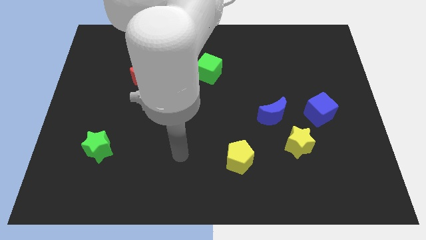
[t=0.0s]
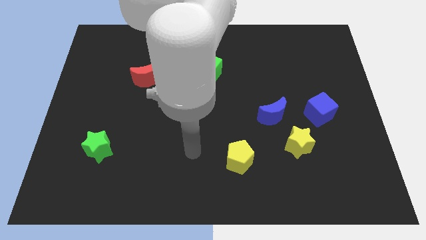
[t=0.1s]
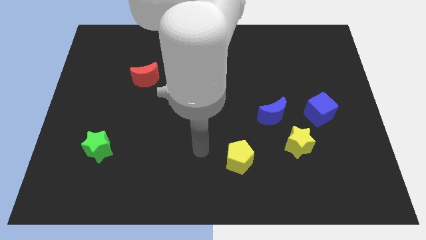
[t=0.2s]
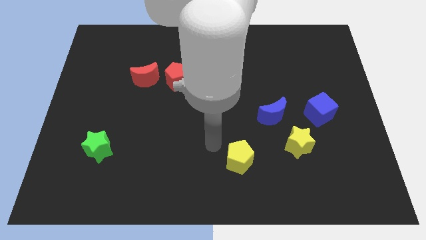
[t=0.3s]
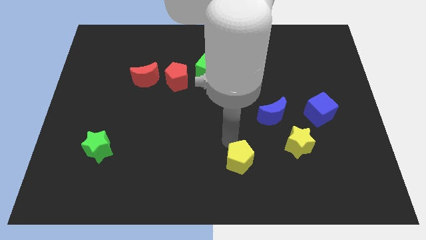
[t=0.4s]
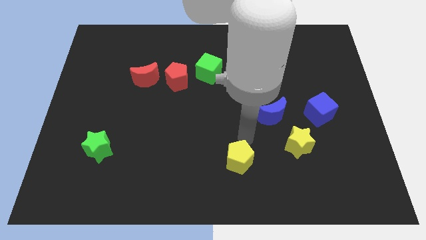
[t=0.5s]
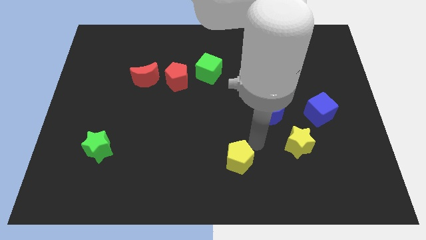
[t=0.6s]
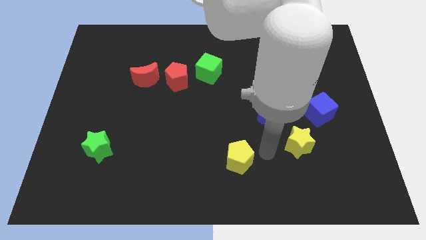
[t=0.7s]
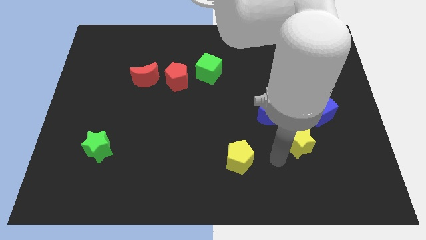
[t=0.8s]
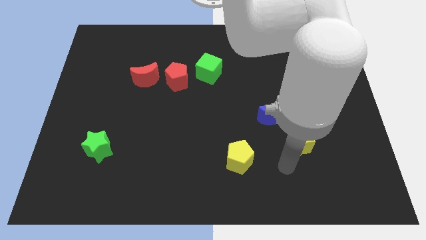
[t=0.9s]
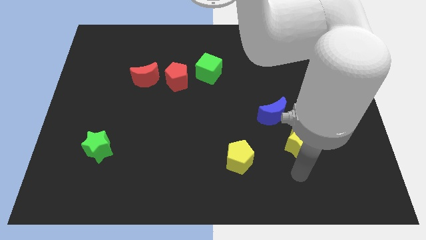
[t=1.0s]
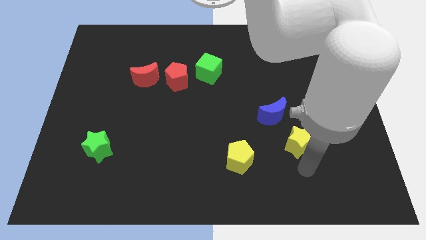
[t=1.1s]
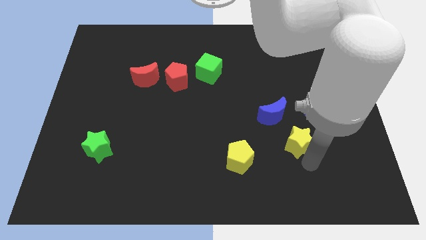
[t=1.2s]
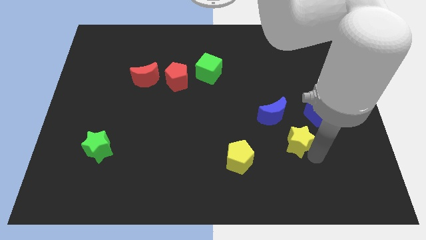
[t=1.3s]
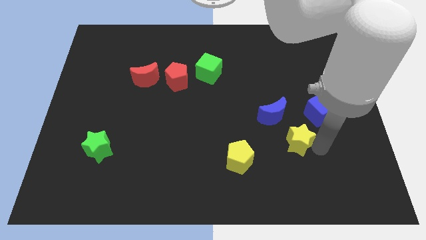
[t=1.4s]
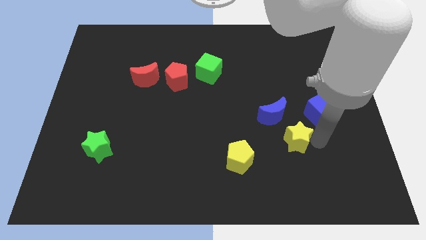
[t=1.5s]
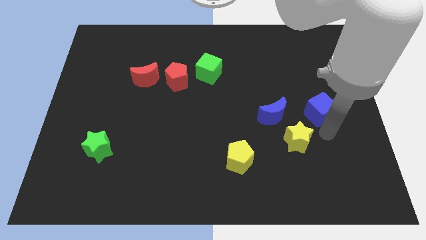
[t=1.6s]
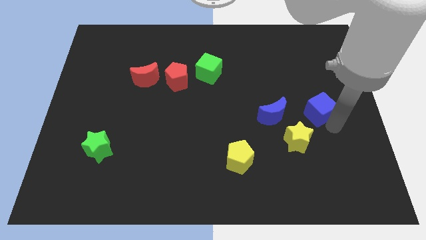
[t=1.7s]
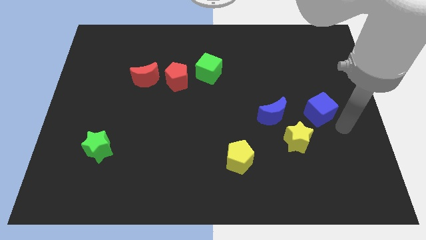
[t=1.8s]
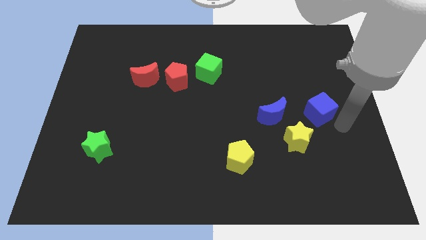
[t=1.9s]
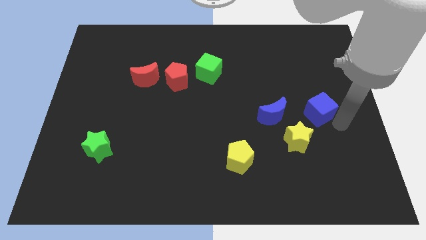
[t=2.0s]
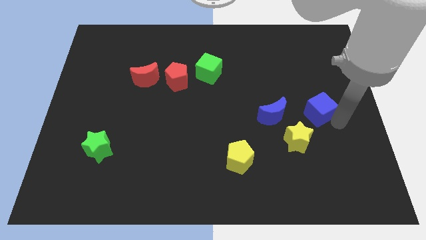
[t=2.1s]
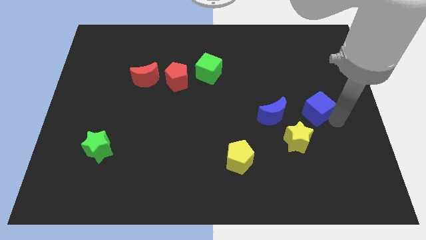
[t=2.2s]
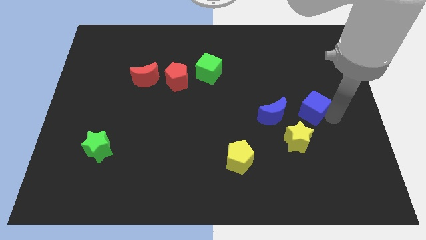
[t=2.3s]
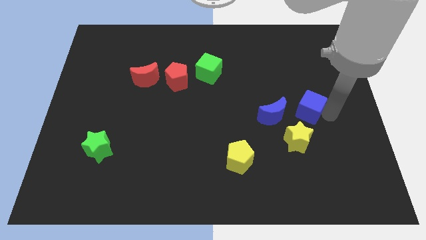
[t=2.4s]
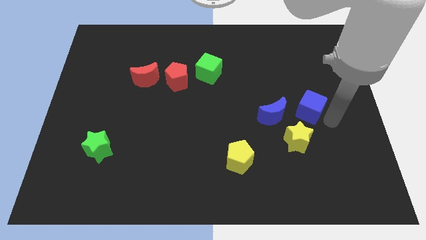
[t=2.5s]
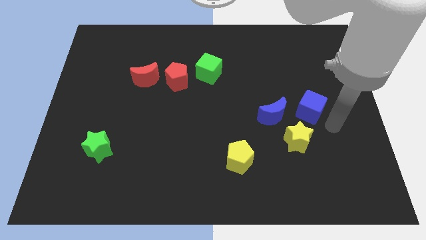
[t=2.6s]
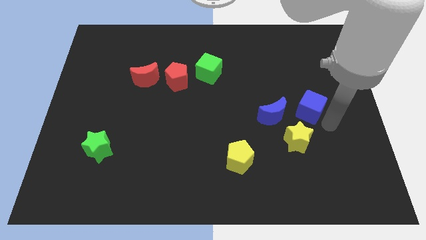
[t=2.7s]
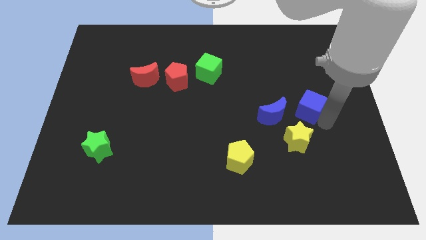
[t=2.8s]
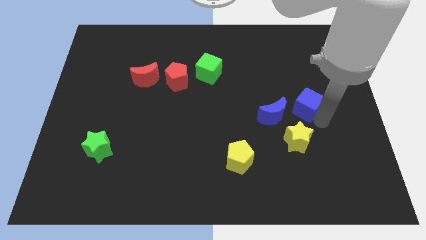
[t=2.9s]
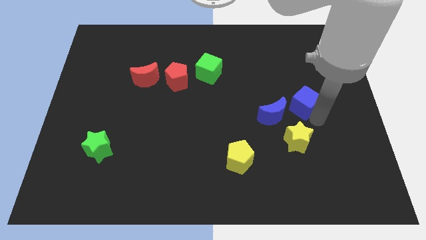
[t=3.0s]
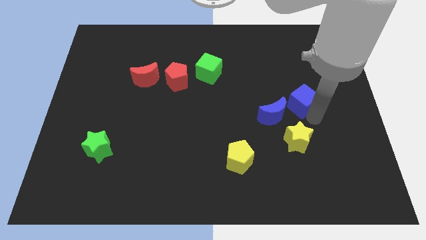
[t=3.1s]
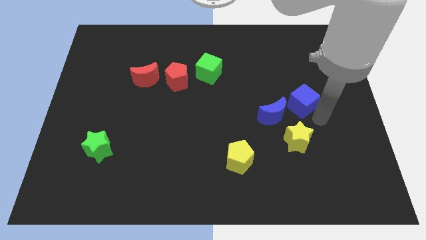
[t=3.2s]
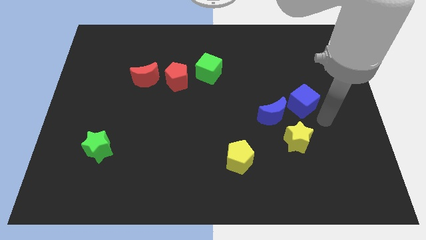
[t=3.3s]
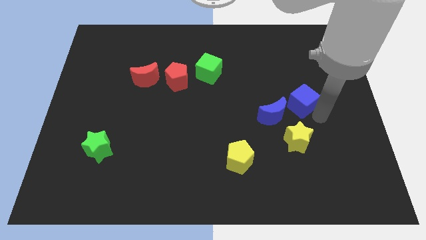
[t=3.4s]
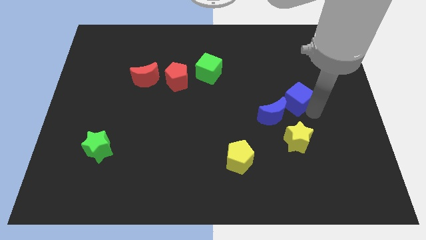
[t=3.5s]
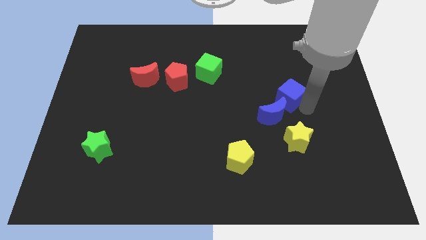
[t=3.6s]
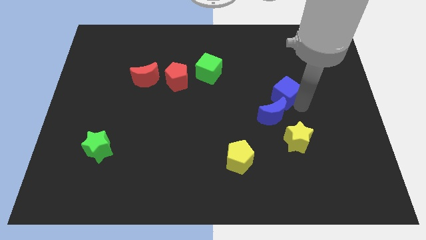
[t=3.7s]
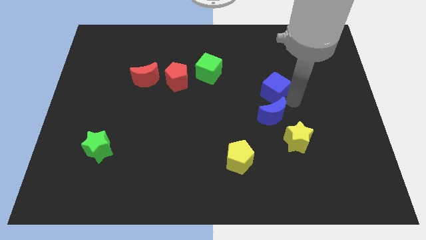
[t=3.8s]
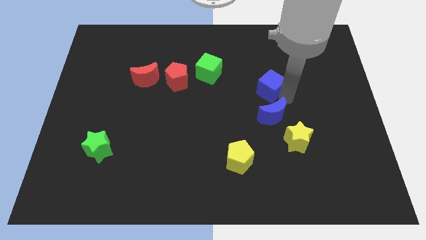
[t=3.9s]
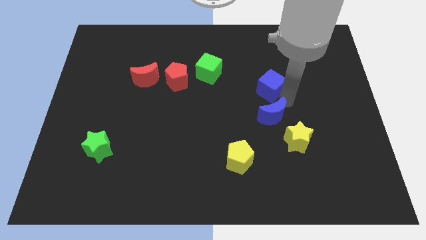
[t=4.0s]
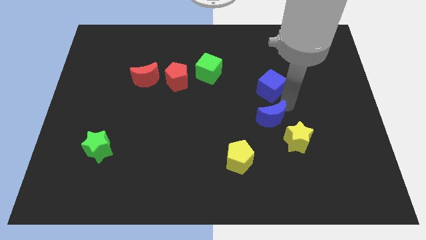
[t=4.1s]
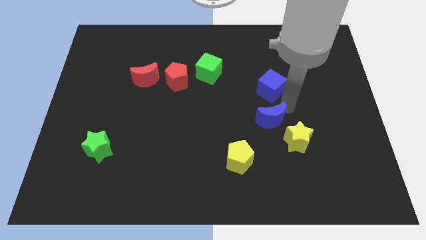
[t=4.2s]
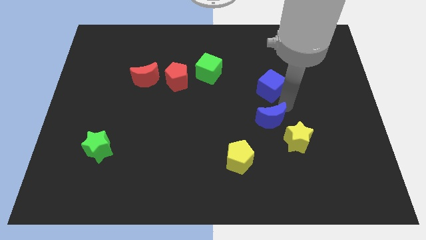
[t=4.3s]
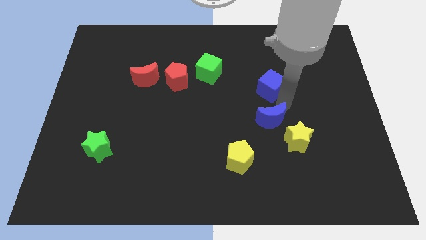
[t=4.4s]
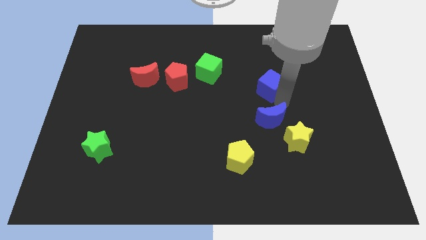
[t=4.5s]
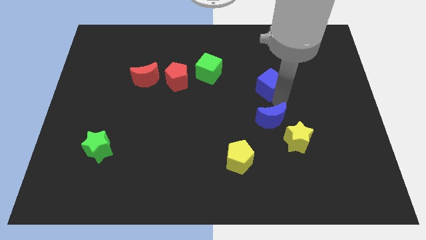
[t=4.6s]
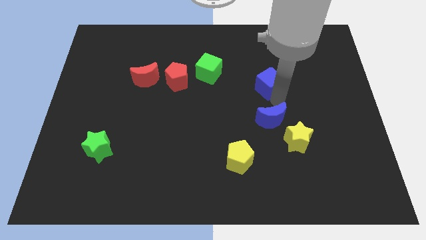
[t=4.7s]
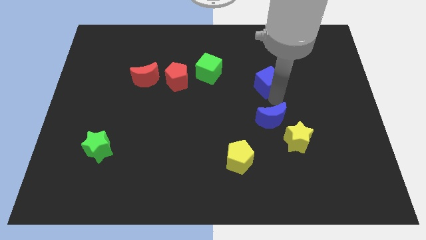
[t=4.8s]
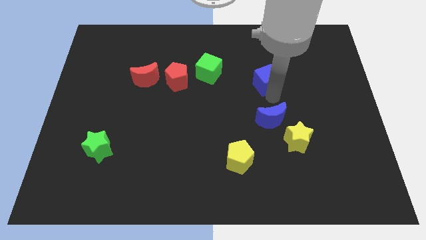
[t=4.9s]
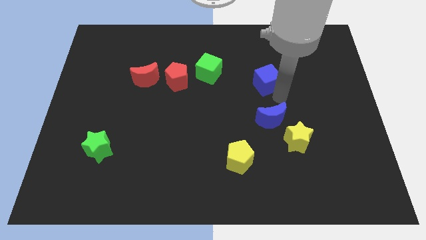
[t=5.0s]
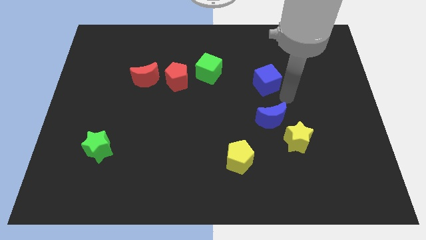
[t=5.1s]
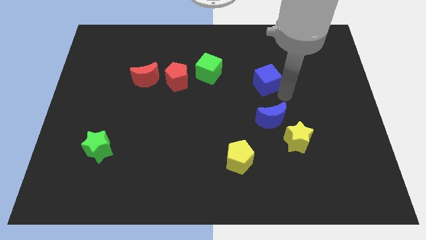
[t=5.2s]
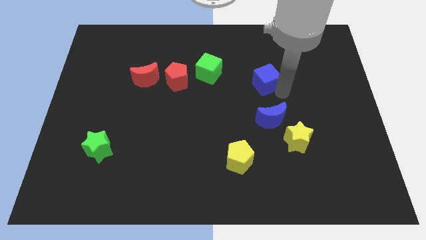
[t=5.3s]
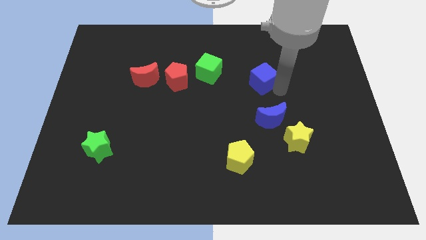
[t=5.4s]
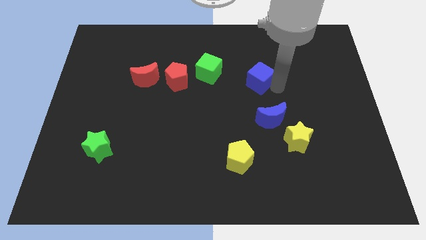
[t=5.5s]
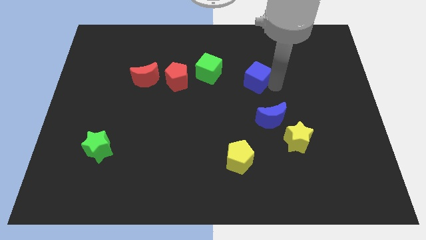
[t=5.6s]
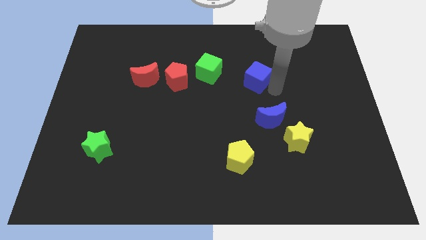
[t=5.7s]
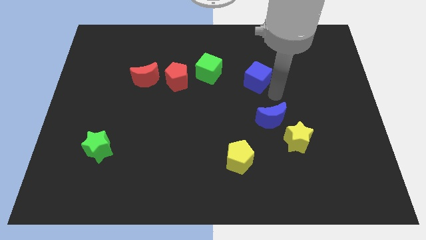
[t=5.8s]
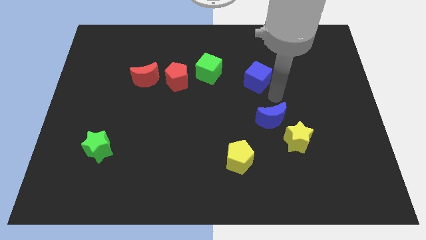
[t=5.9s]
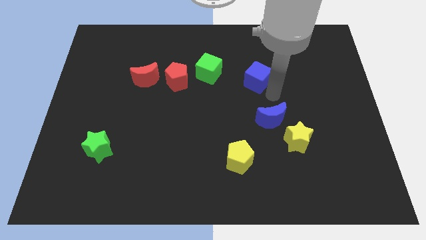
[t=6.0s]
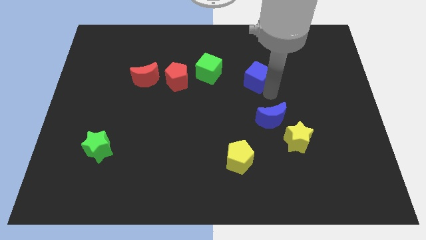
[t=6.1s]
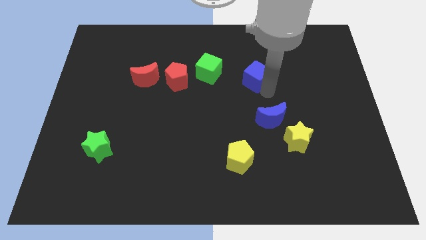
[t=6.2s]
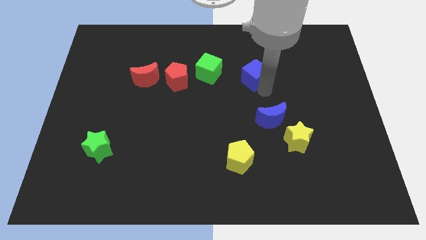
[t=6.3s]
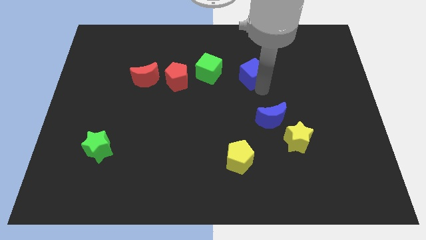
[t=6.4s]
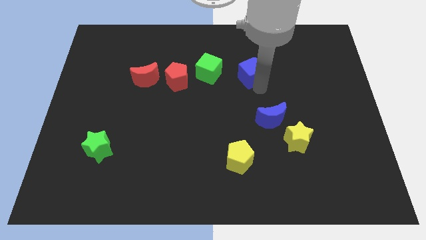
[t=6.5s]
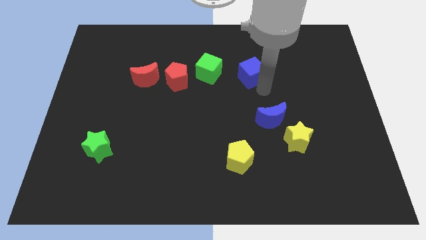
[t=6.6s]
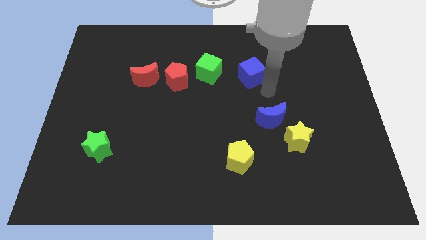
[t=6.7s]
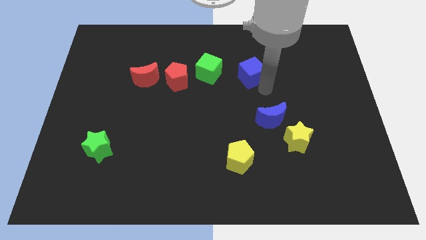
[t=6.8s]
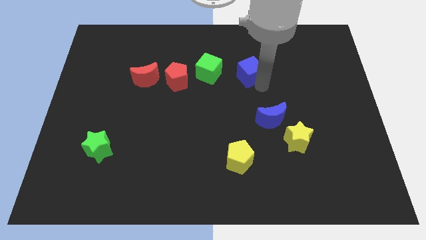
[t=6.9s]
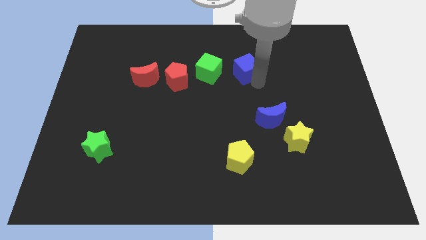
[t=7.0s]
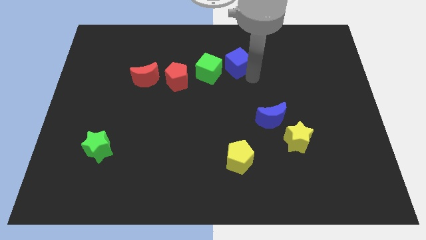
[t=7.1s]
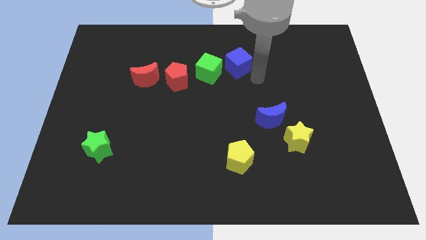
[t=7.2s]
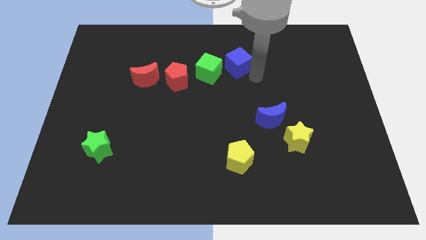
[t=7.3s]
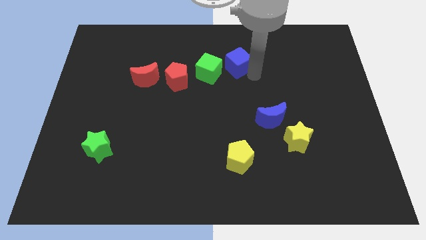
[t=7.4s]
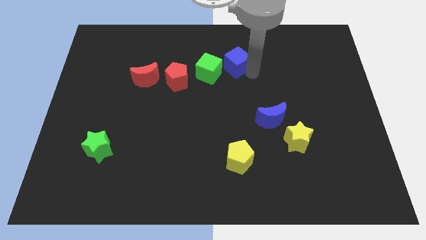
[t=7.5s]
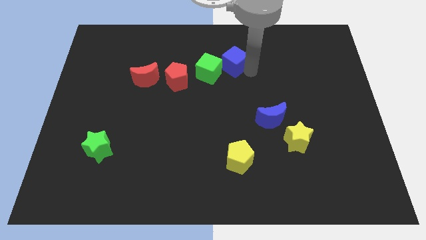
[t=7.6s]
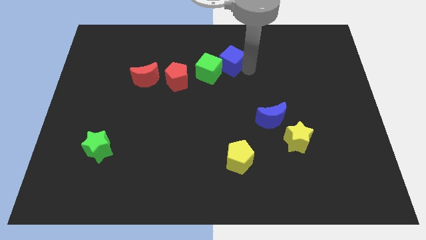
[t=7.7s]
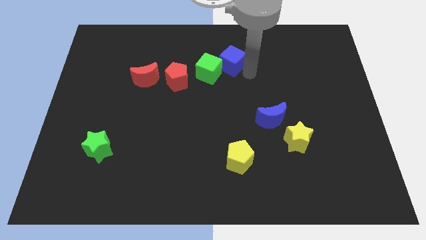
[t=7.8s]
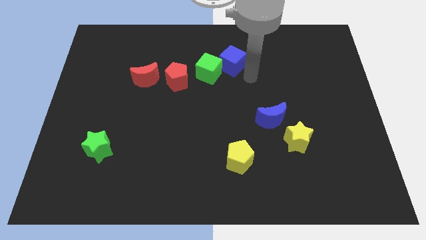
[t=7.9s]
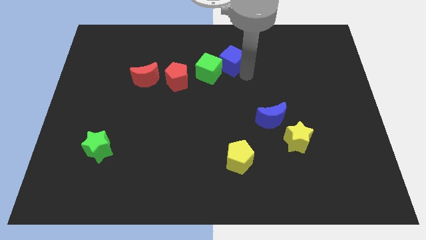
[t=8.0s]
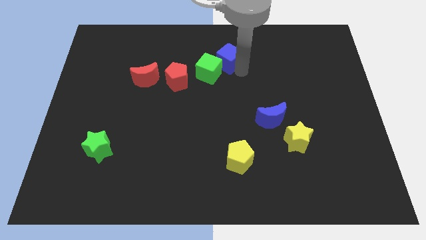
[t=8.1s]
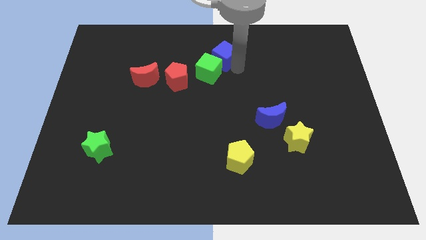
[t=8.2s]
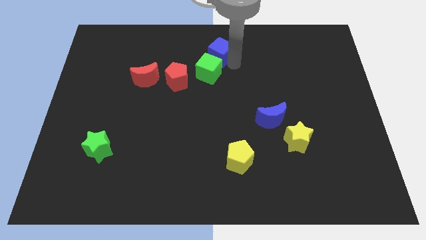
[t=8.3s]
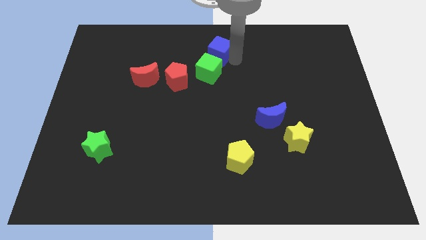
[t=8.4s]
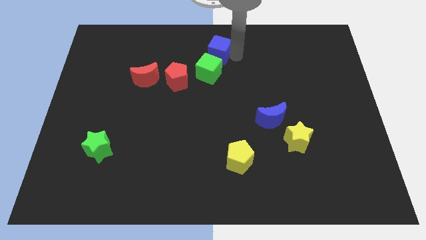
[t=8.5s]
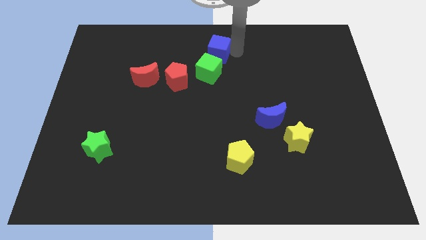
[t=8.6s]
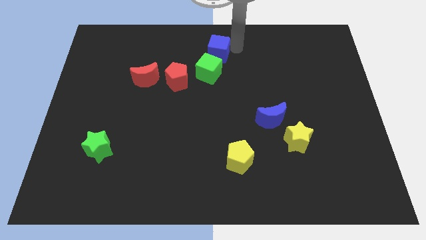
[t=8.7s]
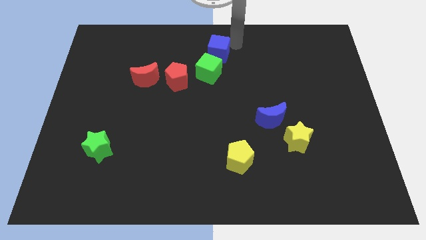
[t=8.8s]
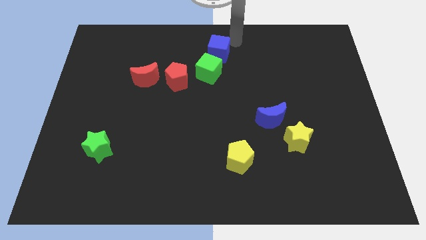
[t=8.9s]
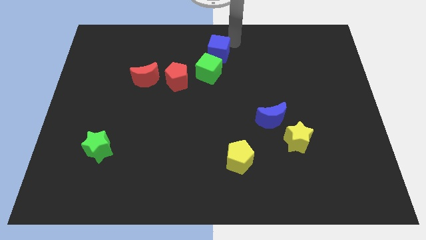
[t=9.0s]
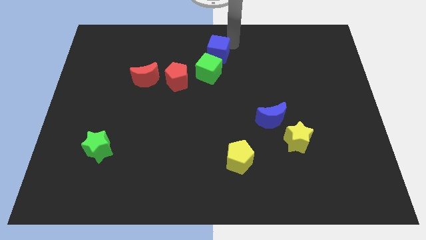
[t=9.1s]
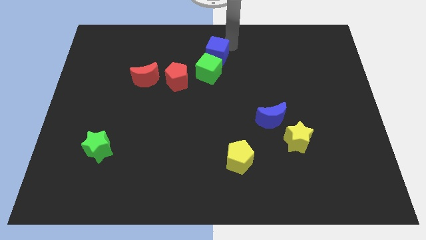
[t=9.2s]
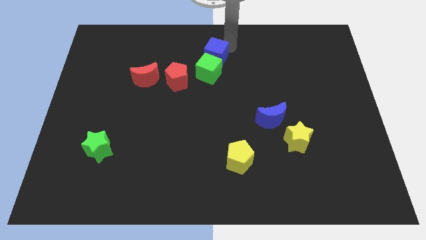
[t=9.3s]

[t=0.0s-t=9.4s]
put the blue cube to the top right of the red pentagon
